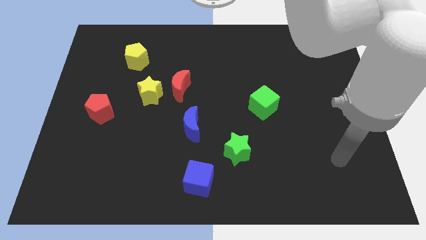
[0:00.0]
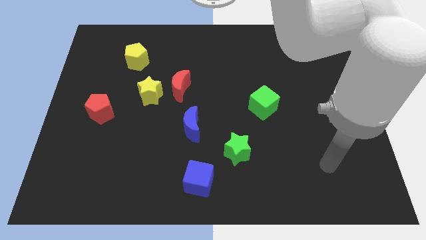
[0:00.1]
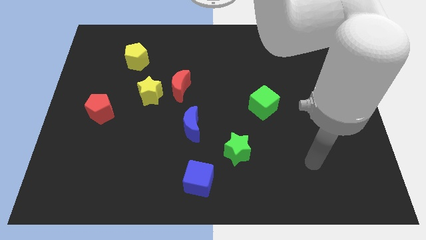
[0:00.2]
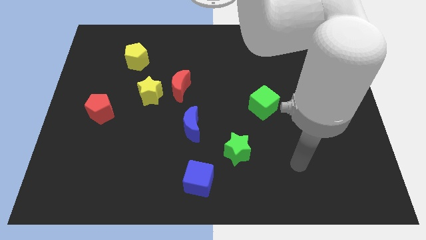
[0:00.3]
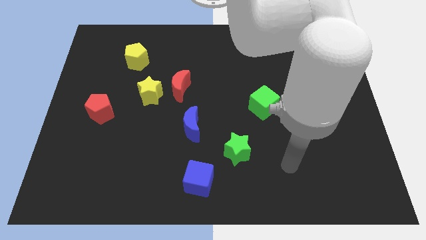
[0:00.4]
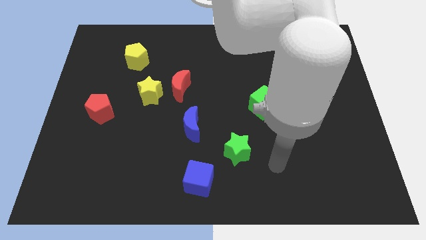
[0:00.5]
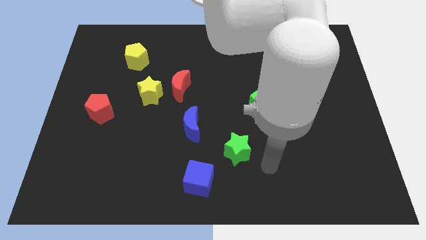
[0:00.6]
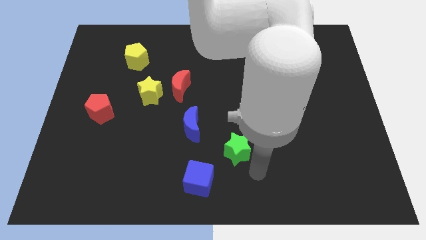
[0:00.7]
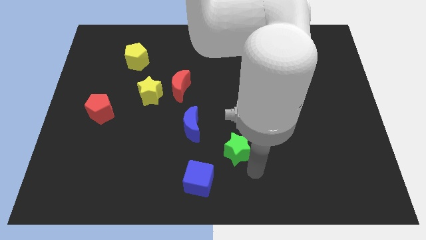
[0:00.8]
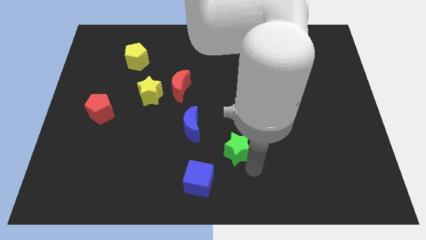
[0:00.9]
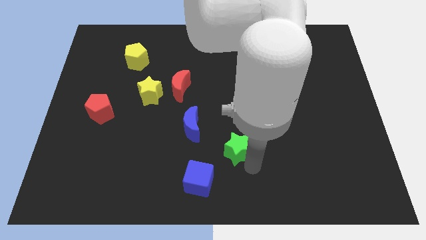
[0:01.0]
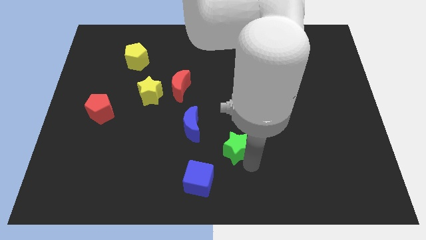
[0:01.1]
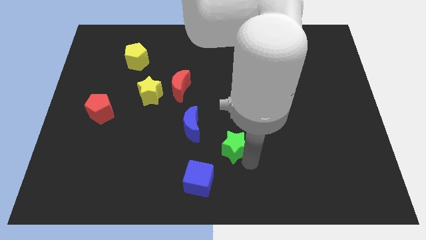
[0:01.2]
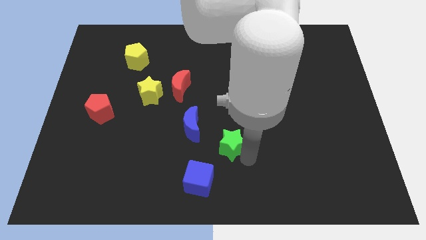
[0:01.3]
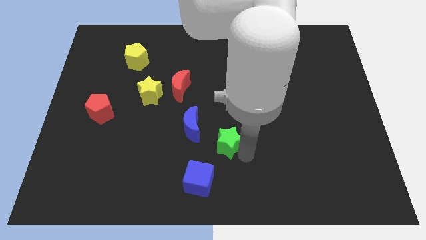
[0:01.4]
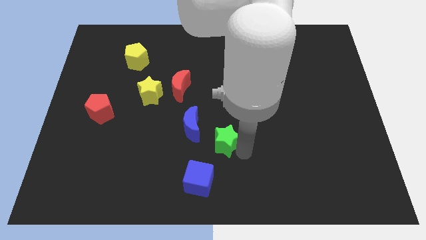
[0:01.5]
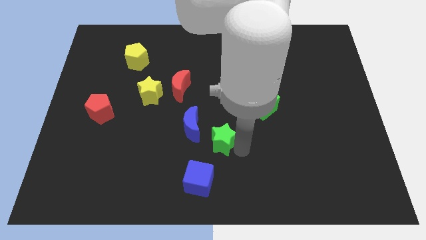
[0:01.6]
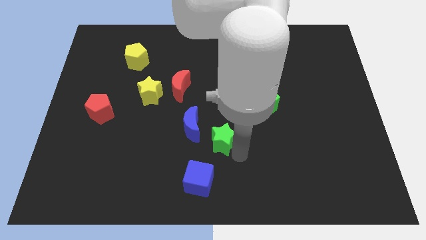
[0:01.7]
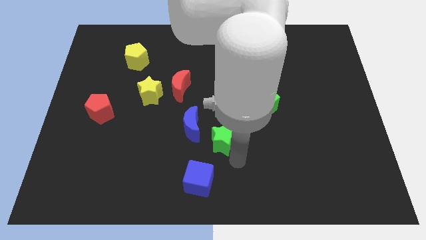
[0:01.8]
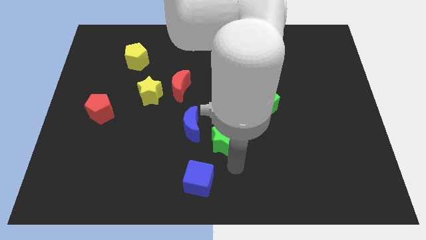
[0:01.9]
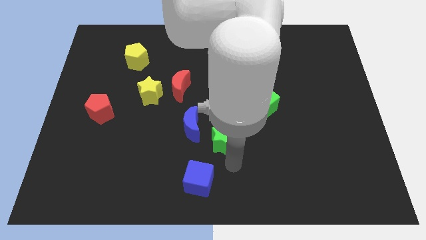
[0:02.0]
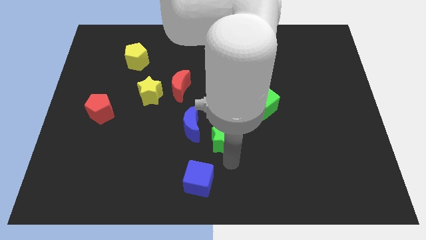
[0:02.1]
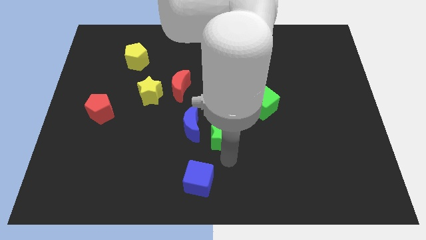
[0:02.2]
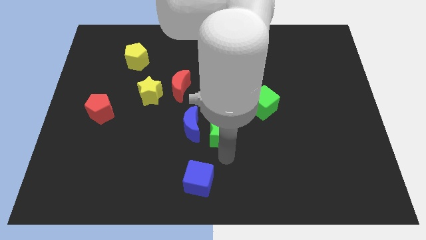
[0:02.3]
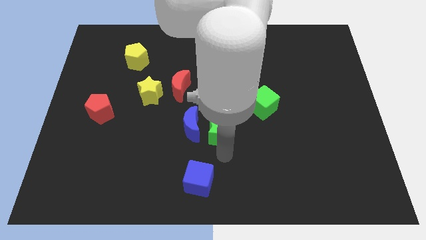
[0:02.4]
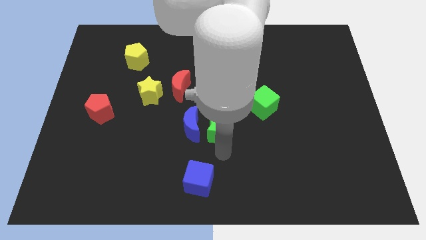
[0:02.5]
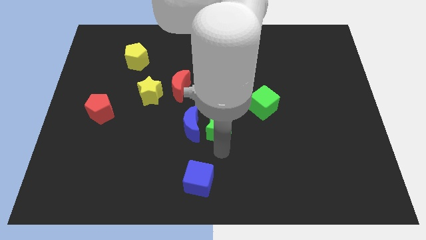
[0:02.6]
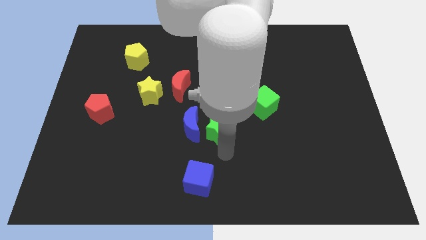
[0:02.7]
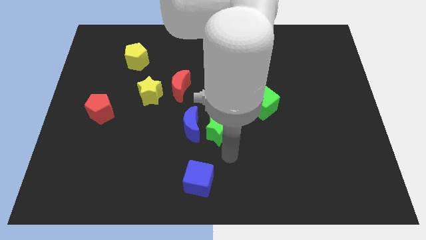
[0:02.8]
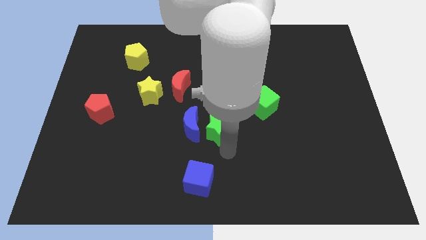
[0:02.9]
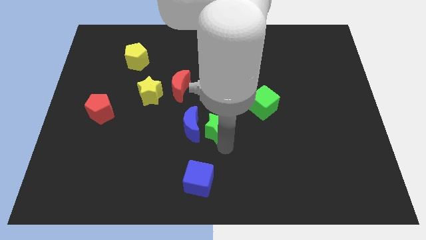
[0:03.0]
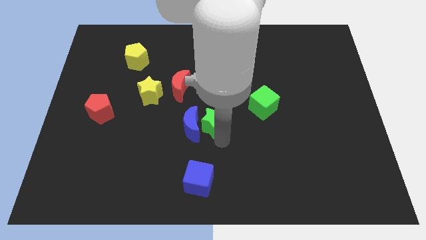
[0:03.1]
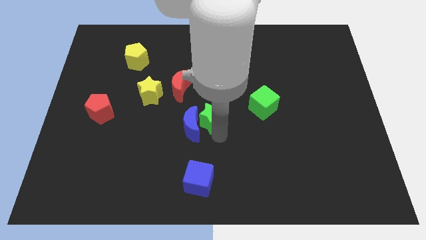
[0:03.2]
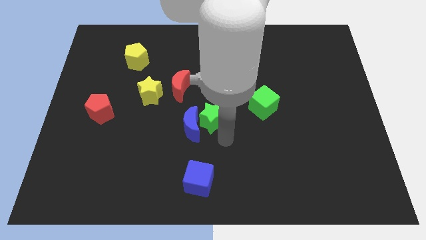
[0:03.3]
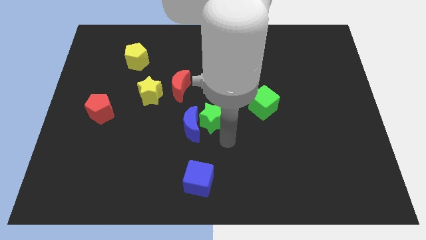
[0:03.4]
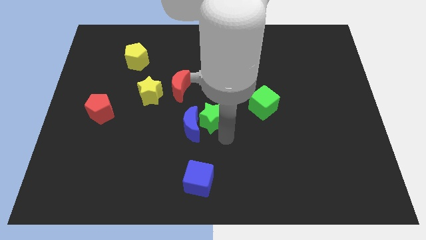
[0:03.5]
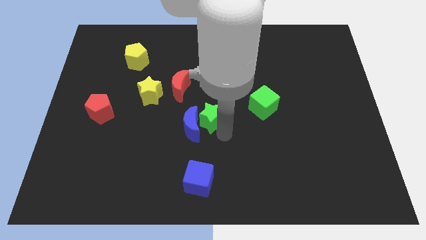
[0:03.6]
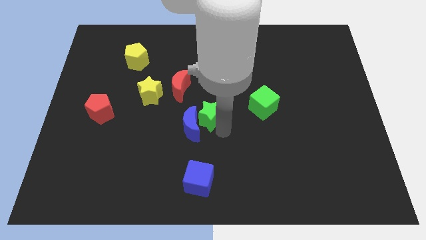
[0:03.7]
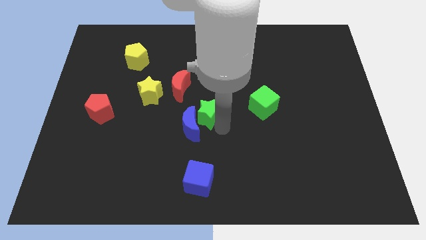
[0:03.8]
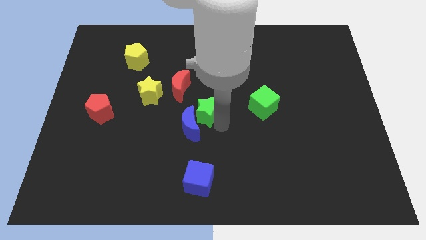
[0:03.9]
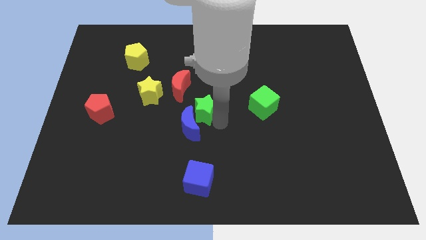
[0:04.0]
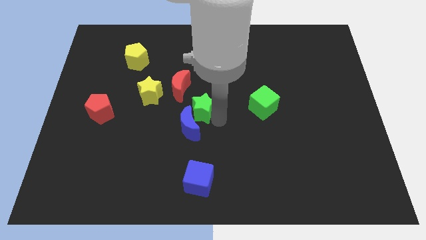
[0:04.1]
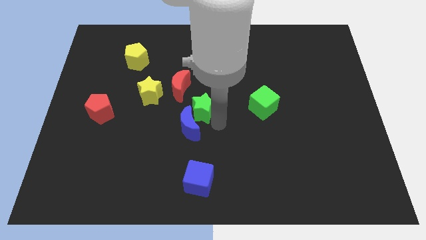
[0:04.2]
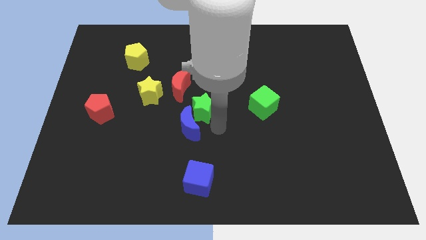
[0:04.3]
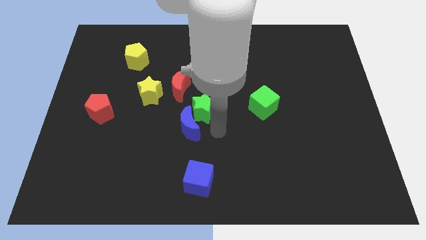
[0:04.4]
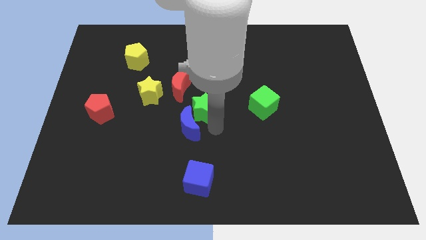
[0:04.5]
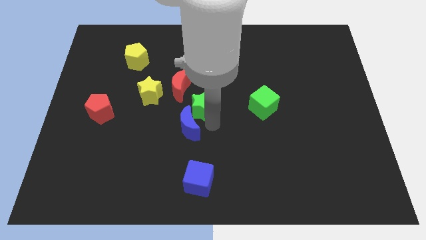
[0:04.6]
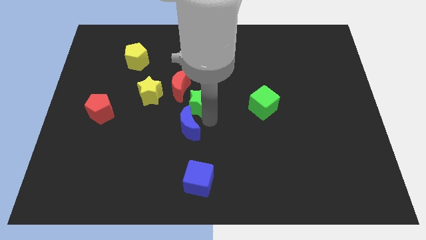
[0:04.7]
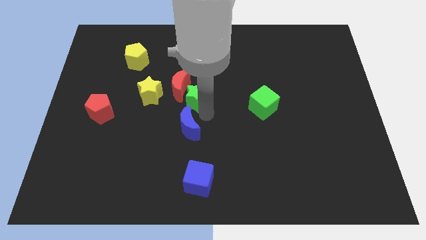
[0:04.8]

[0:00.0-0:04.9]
move the green star to the red moon

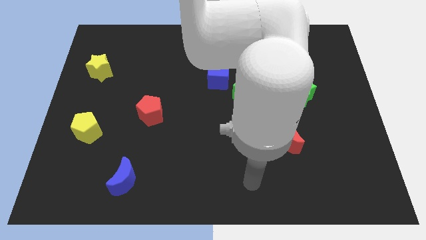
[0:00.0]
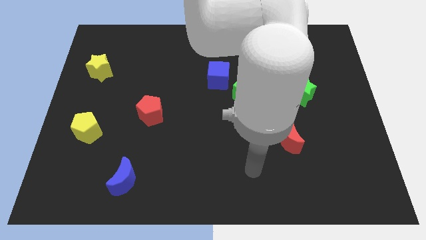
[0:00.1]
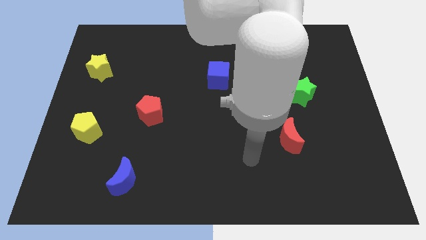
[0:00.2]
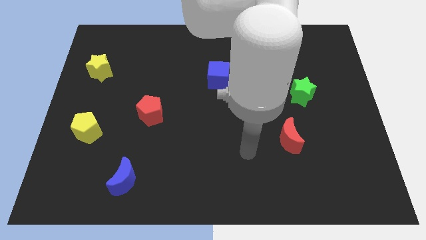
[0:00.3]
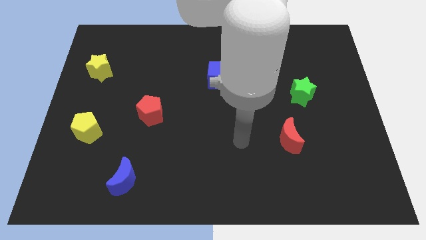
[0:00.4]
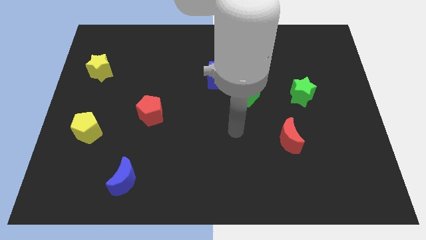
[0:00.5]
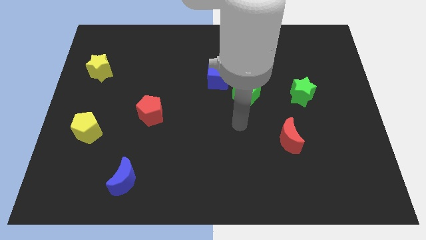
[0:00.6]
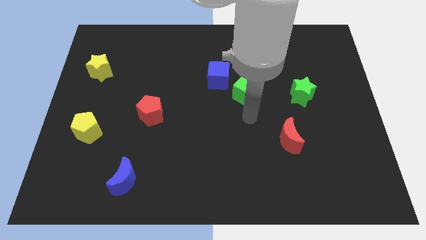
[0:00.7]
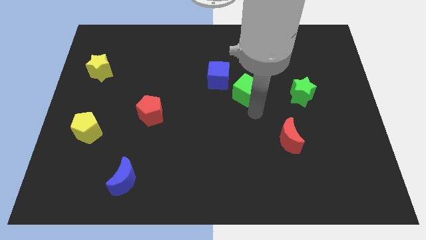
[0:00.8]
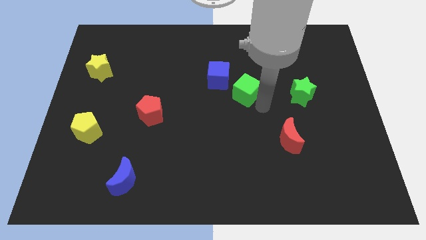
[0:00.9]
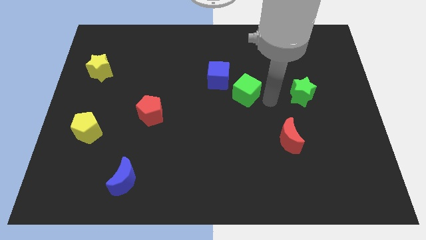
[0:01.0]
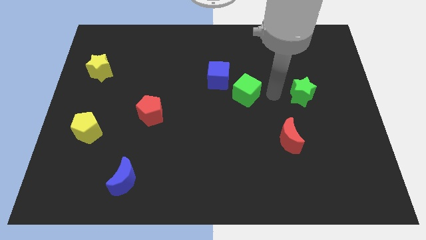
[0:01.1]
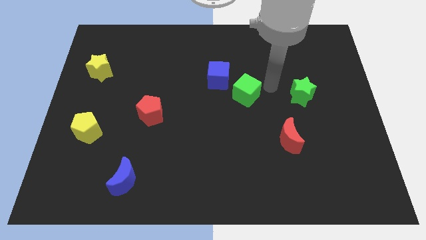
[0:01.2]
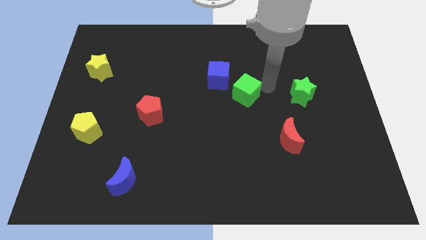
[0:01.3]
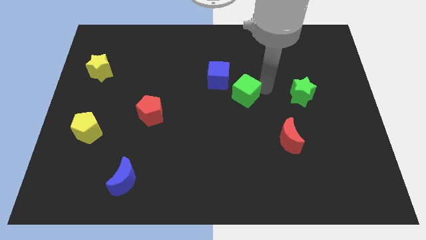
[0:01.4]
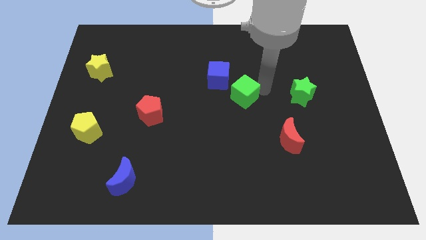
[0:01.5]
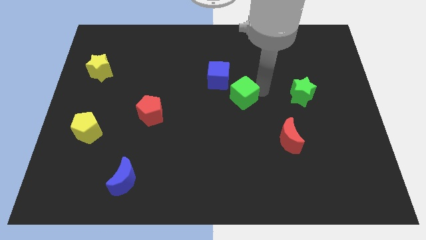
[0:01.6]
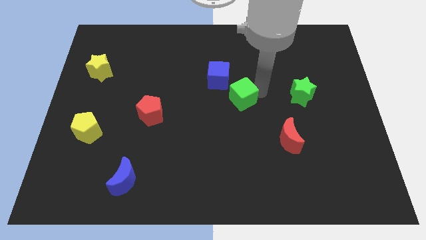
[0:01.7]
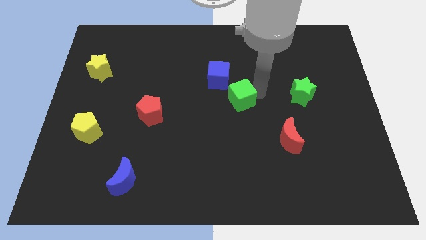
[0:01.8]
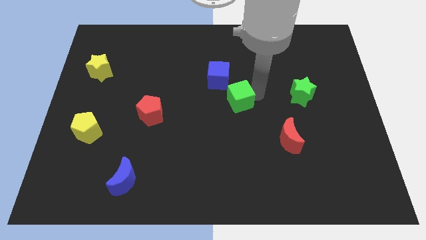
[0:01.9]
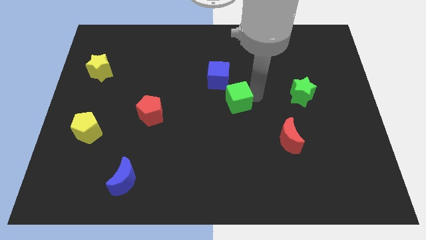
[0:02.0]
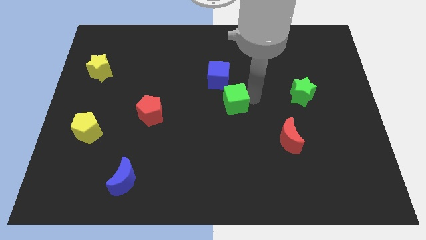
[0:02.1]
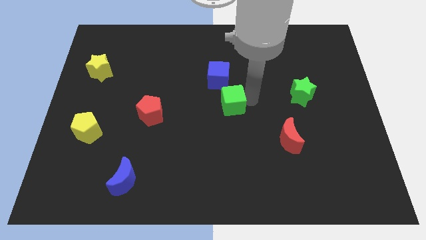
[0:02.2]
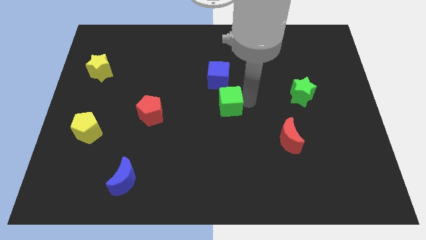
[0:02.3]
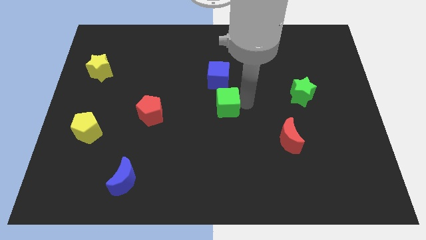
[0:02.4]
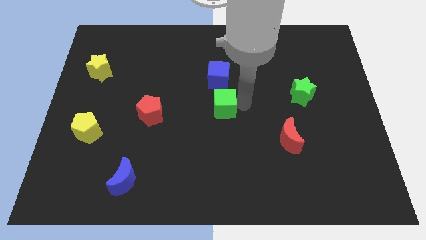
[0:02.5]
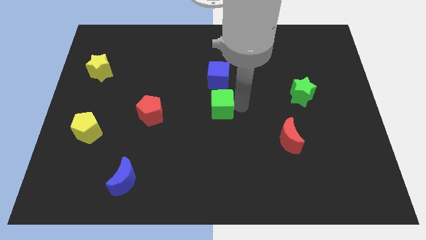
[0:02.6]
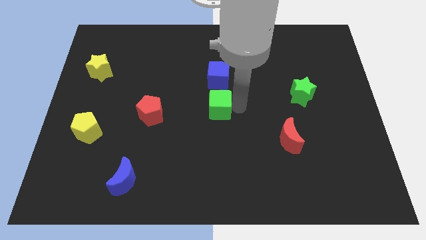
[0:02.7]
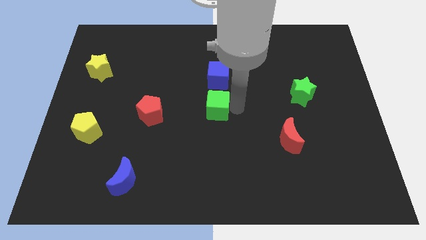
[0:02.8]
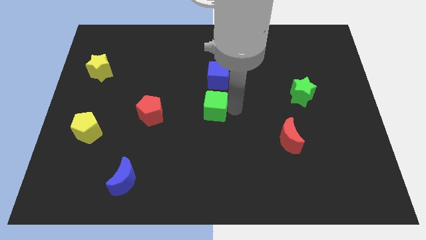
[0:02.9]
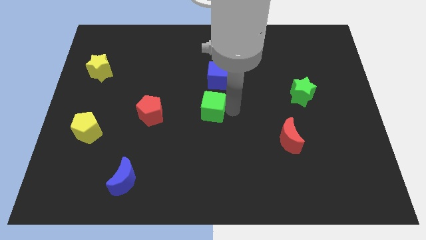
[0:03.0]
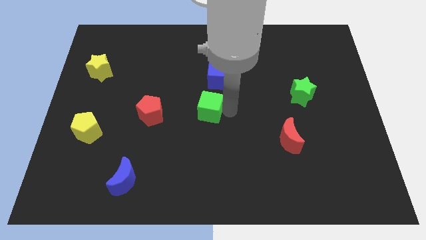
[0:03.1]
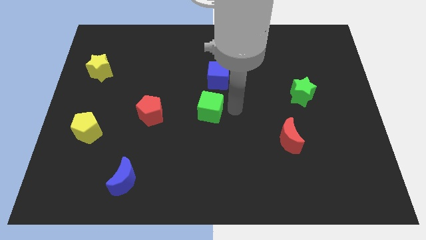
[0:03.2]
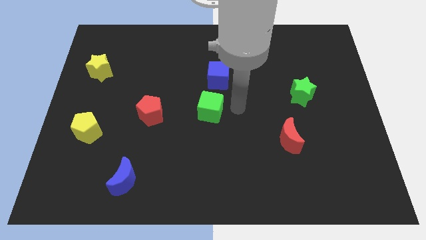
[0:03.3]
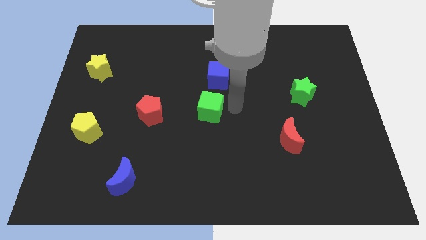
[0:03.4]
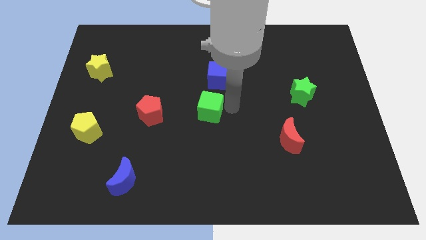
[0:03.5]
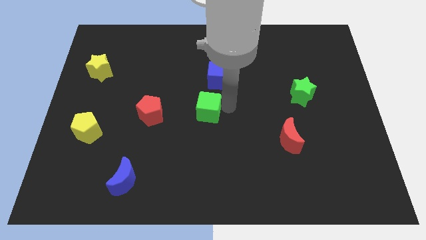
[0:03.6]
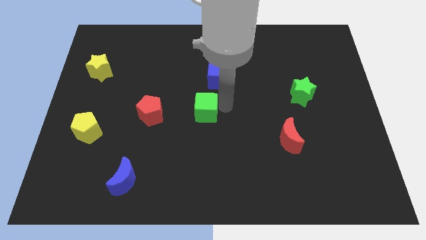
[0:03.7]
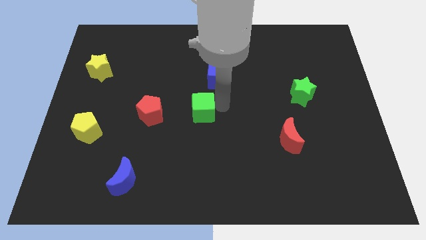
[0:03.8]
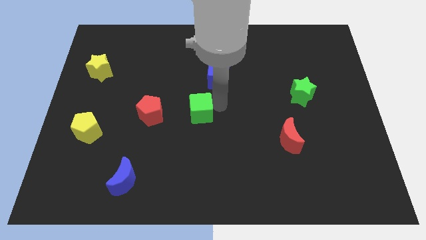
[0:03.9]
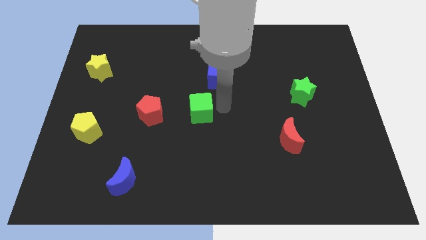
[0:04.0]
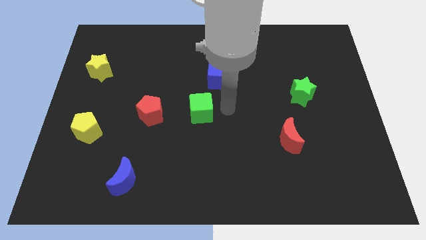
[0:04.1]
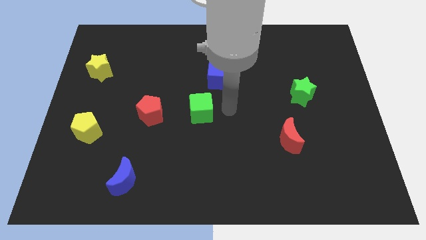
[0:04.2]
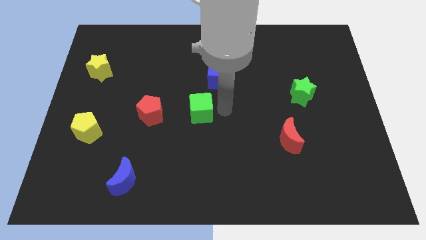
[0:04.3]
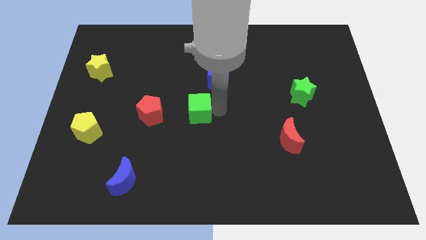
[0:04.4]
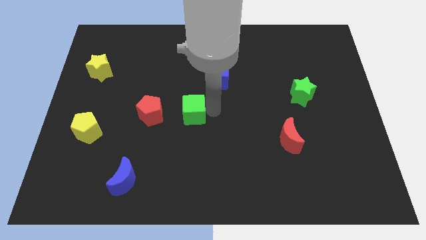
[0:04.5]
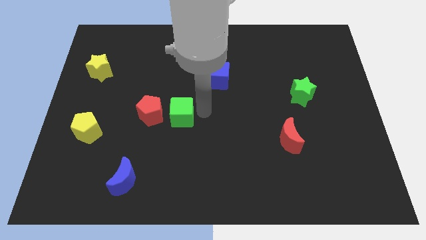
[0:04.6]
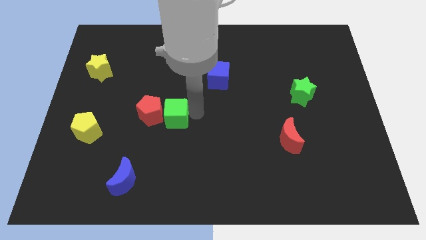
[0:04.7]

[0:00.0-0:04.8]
put the green cube towards the red pentagon
